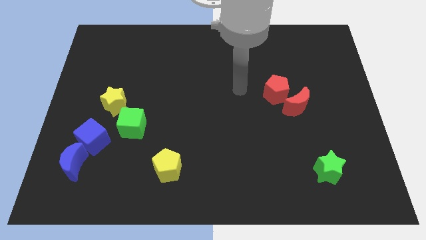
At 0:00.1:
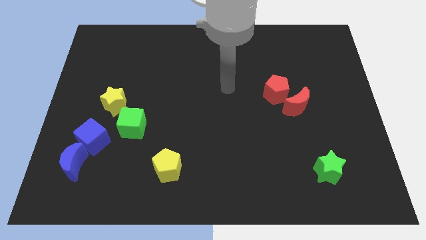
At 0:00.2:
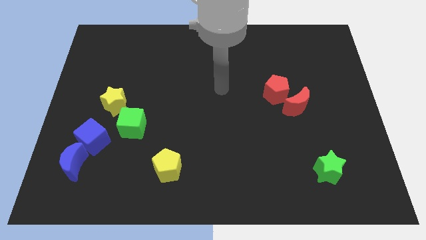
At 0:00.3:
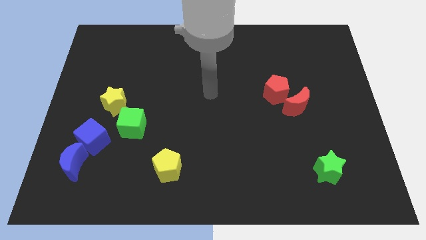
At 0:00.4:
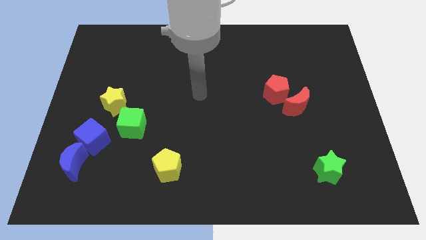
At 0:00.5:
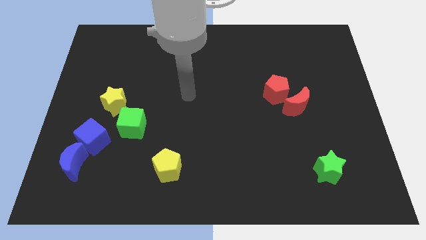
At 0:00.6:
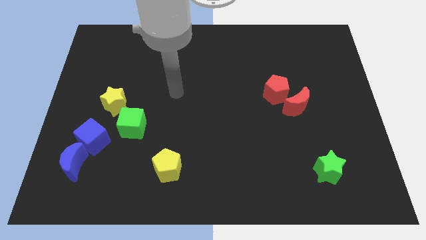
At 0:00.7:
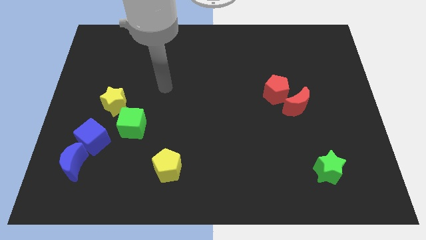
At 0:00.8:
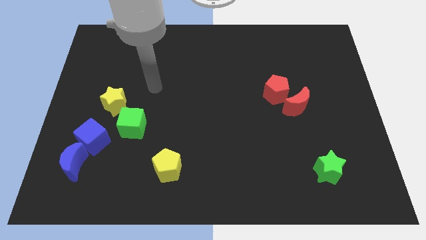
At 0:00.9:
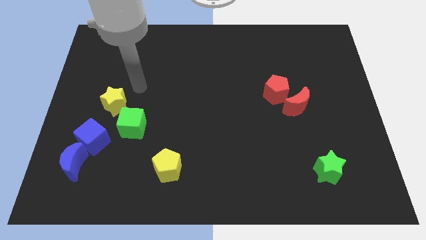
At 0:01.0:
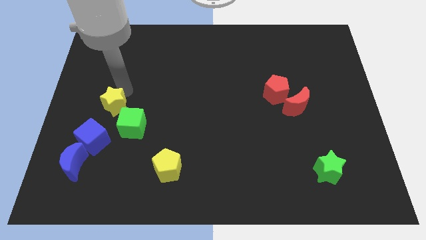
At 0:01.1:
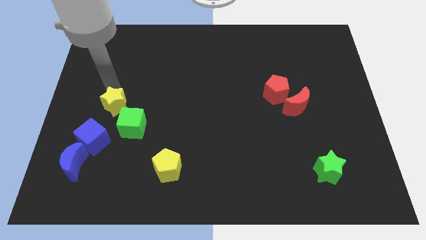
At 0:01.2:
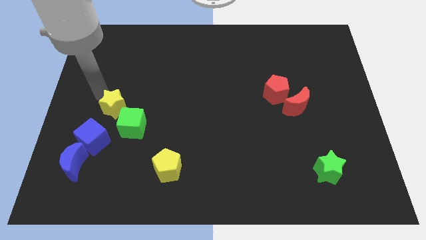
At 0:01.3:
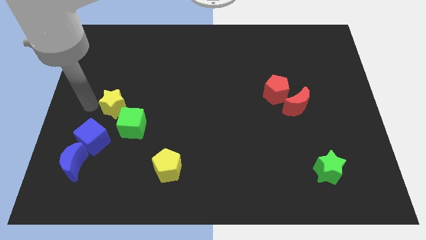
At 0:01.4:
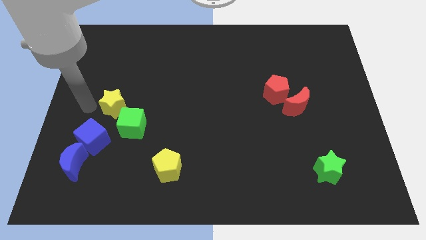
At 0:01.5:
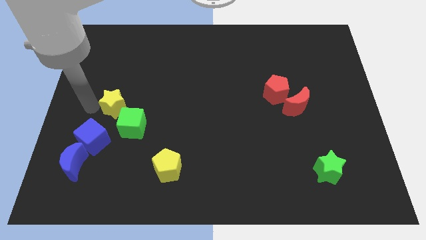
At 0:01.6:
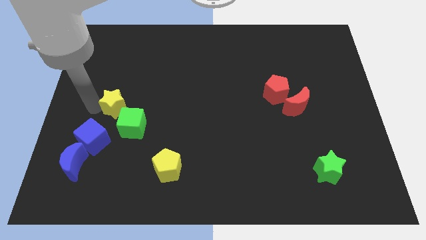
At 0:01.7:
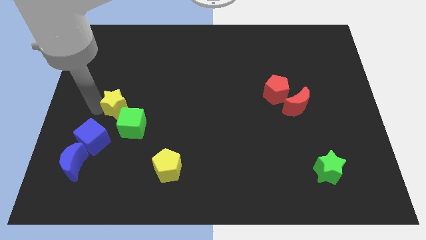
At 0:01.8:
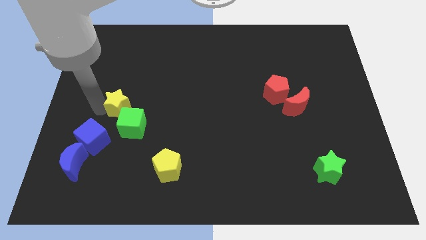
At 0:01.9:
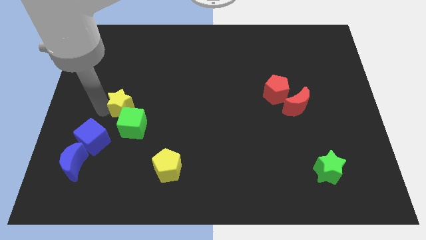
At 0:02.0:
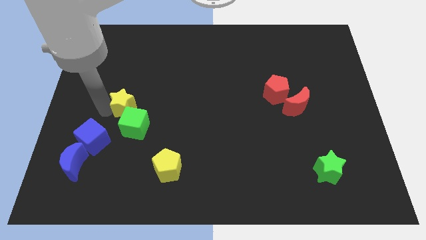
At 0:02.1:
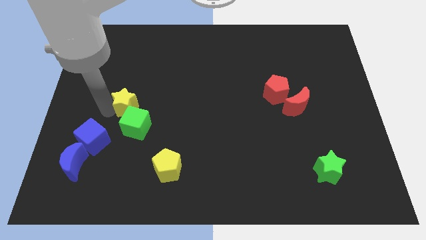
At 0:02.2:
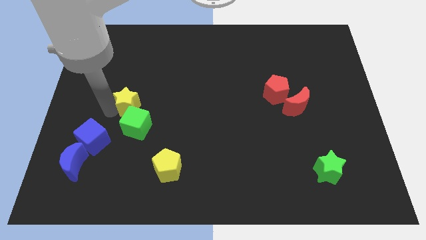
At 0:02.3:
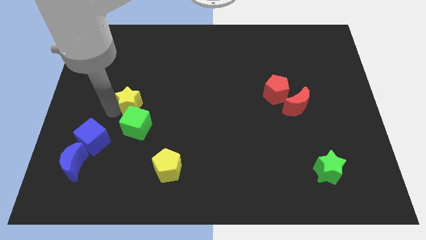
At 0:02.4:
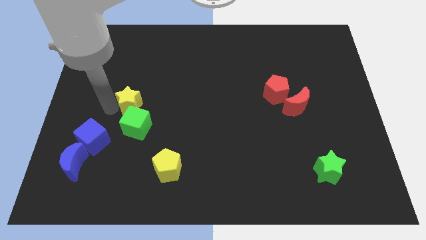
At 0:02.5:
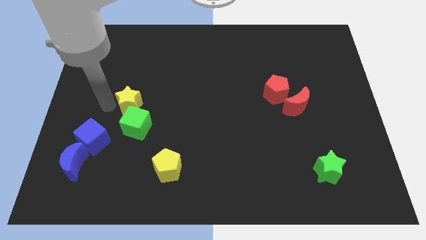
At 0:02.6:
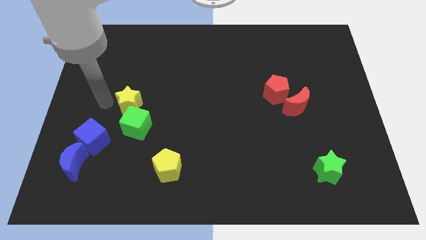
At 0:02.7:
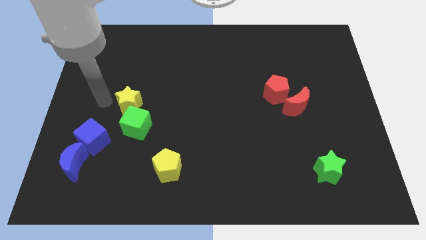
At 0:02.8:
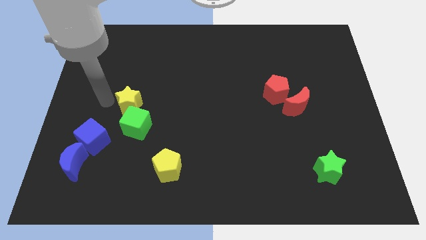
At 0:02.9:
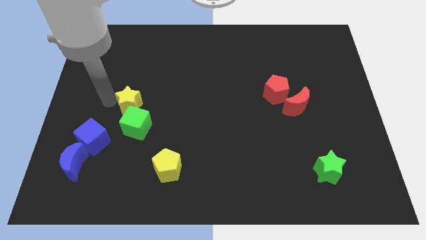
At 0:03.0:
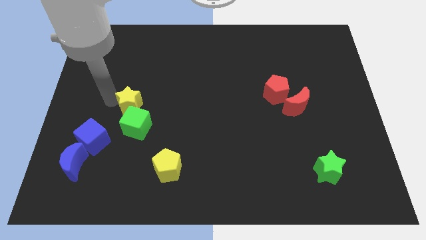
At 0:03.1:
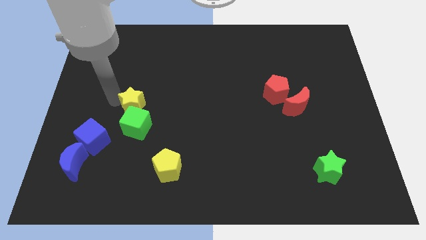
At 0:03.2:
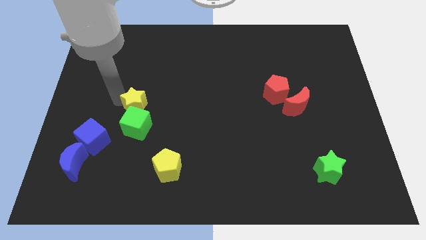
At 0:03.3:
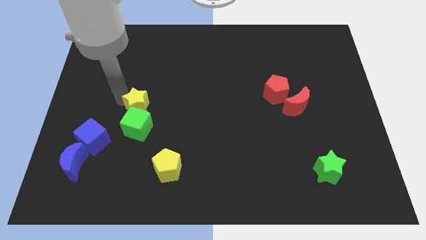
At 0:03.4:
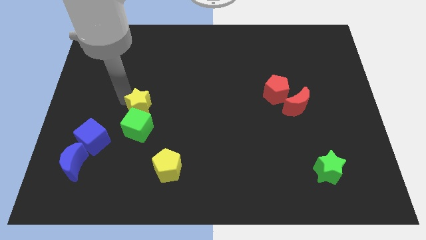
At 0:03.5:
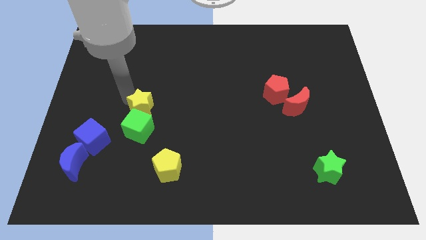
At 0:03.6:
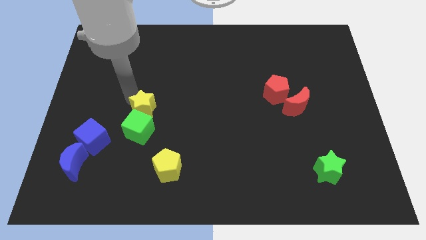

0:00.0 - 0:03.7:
move the yellow star somewhat right

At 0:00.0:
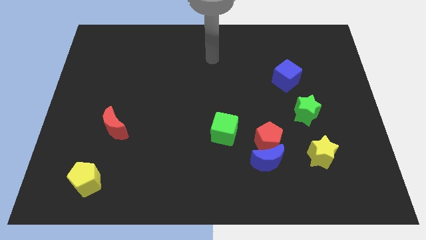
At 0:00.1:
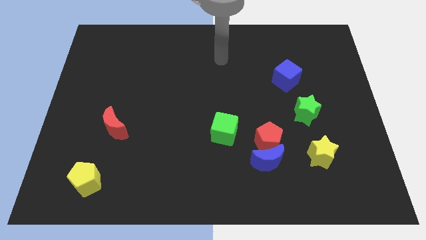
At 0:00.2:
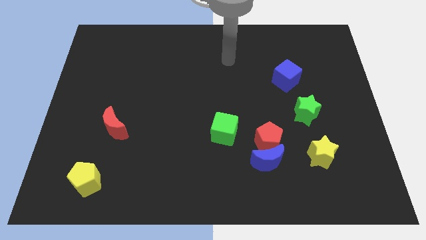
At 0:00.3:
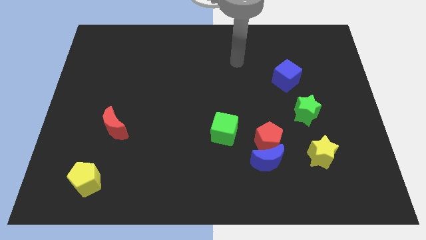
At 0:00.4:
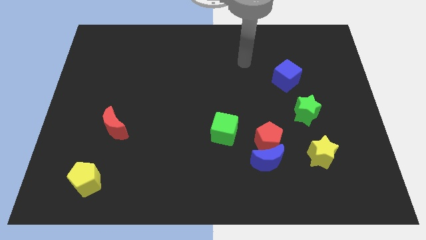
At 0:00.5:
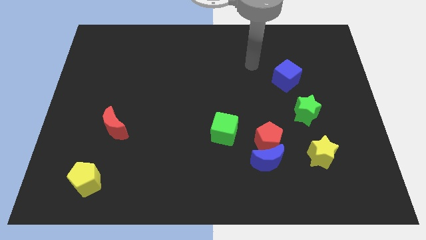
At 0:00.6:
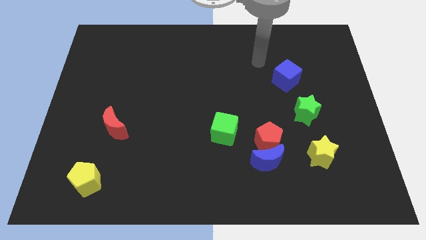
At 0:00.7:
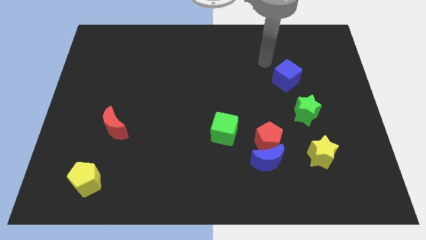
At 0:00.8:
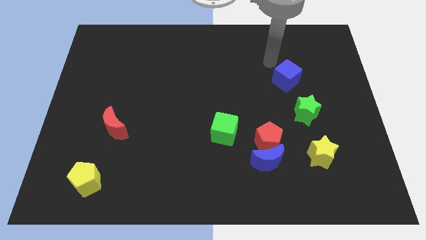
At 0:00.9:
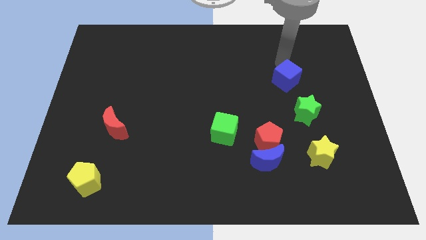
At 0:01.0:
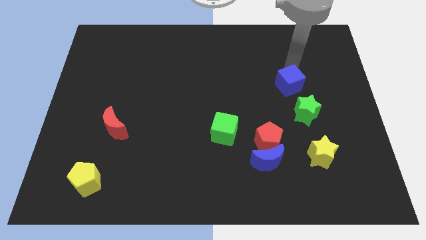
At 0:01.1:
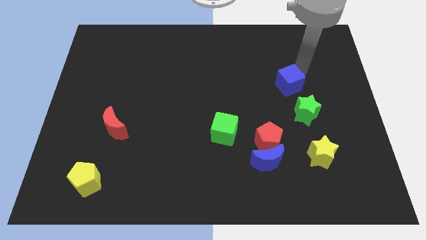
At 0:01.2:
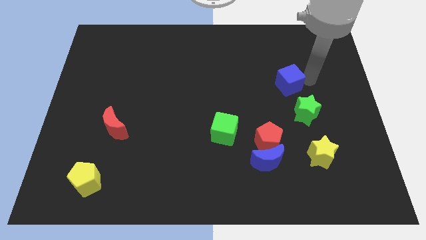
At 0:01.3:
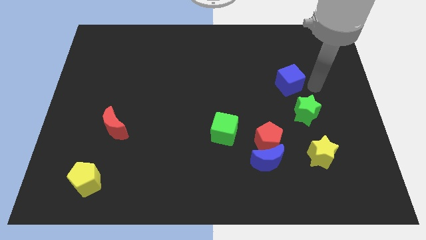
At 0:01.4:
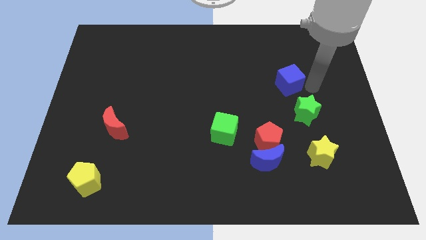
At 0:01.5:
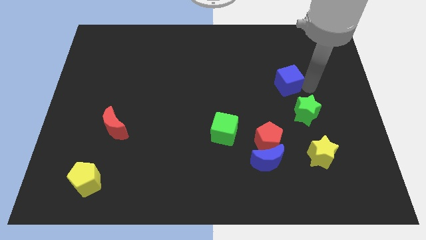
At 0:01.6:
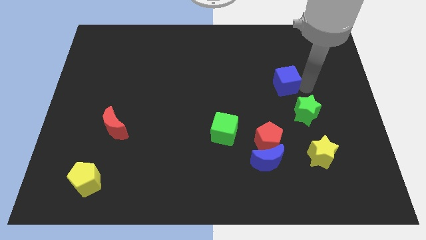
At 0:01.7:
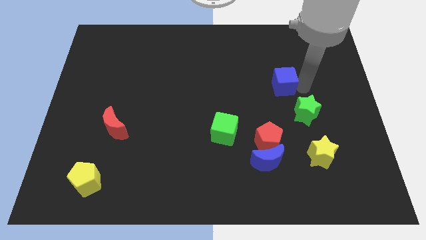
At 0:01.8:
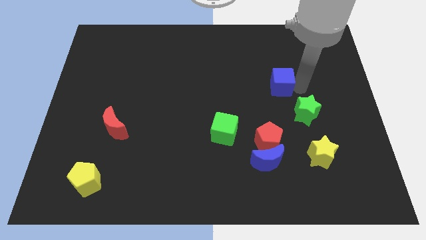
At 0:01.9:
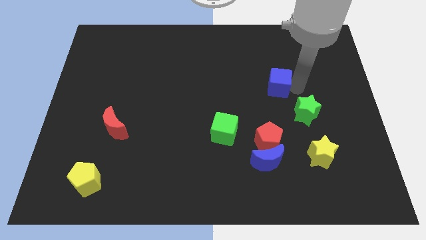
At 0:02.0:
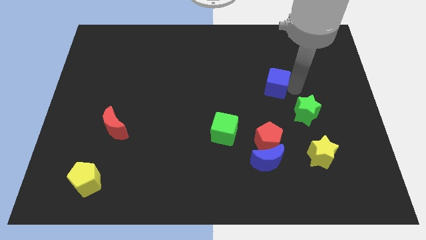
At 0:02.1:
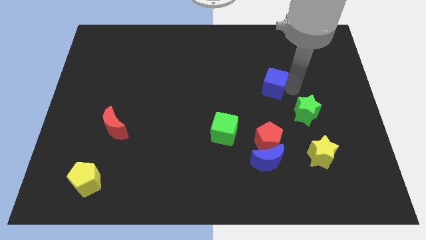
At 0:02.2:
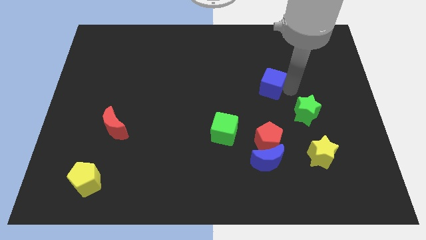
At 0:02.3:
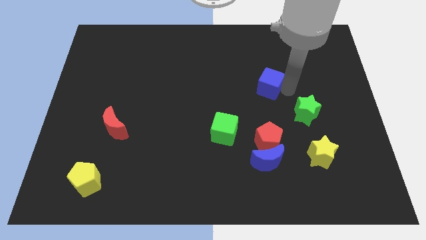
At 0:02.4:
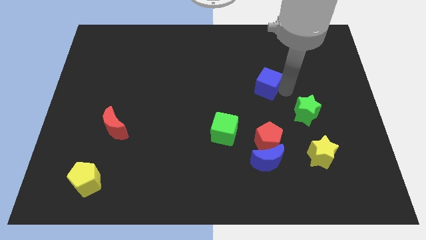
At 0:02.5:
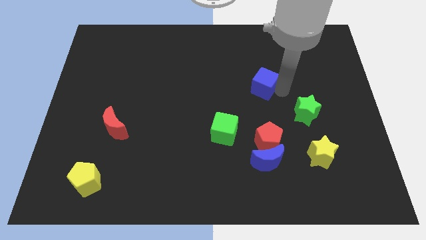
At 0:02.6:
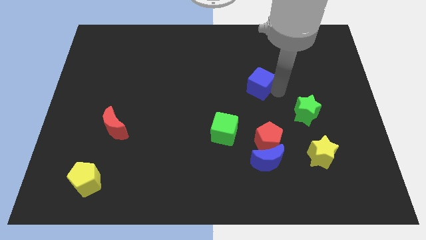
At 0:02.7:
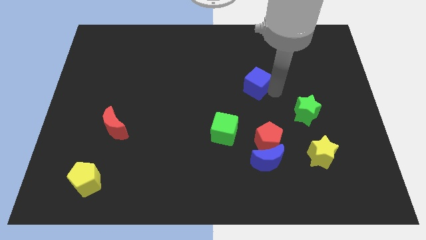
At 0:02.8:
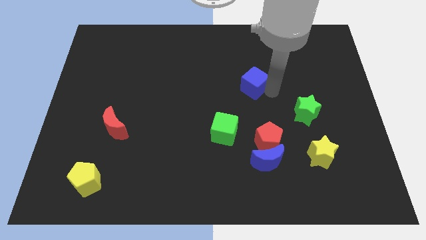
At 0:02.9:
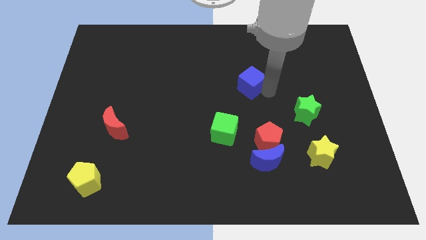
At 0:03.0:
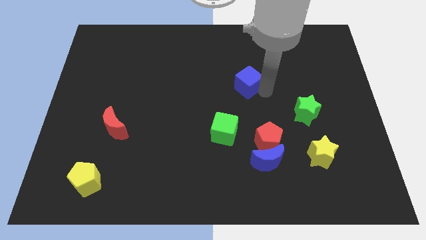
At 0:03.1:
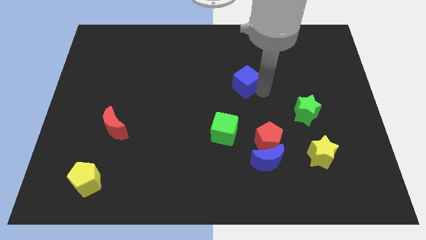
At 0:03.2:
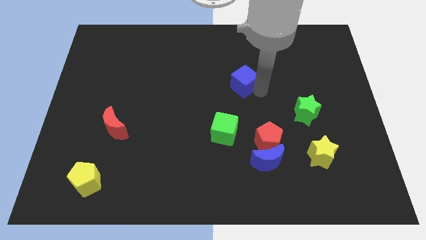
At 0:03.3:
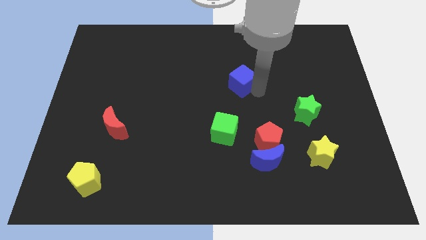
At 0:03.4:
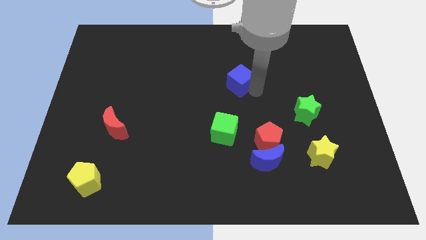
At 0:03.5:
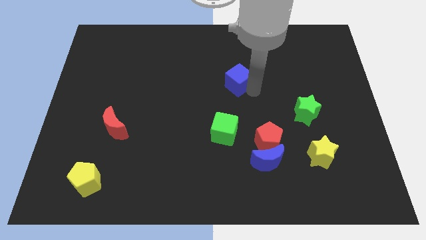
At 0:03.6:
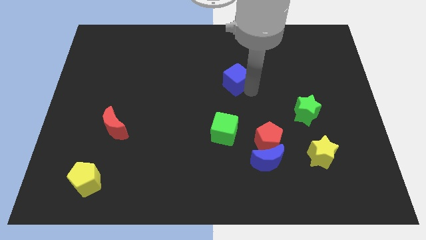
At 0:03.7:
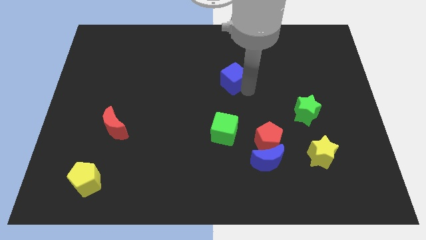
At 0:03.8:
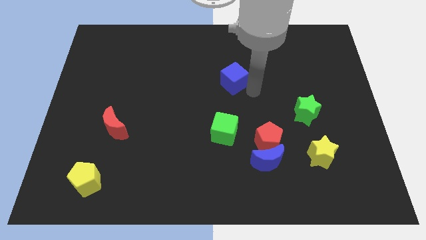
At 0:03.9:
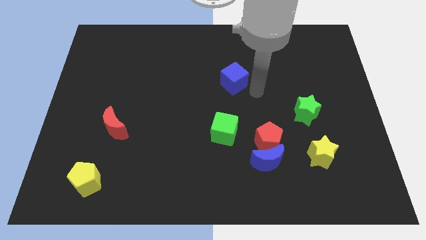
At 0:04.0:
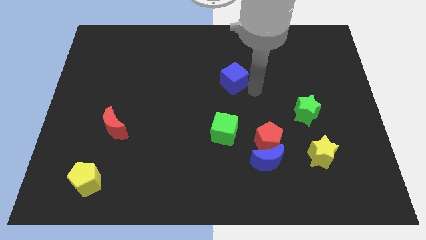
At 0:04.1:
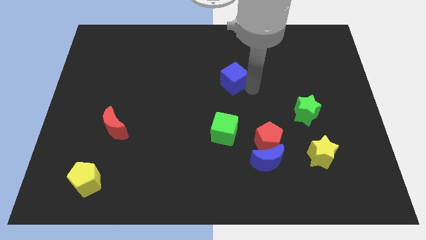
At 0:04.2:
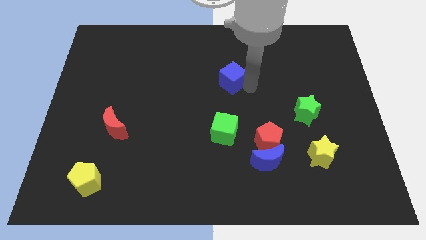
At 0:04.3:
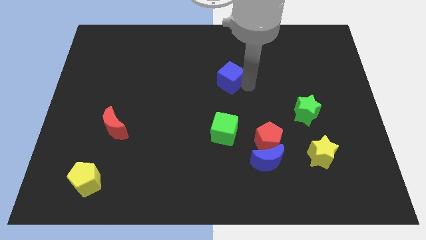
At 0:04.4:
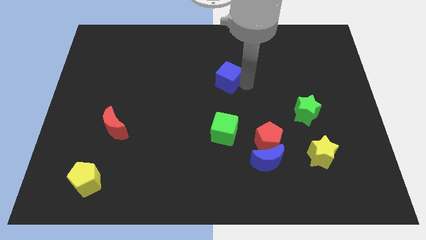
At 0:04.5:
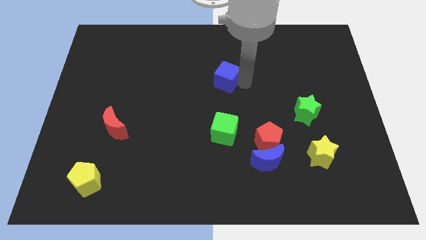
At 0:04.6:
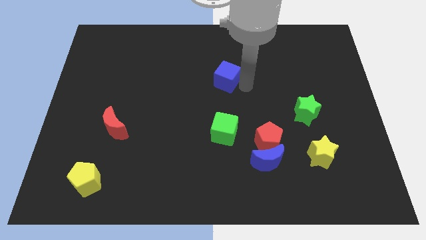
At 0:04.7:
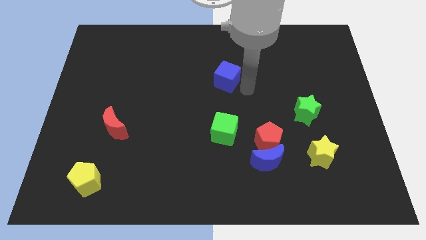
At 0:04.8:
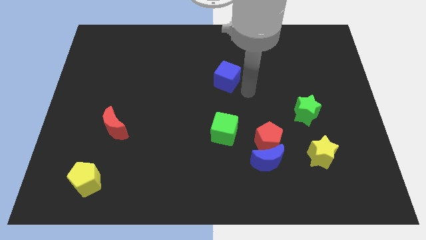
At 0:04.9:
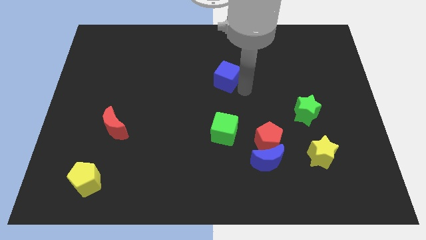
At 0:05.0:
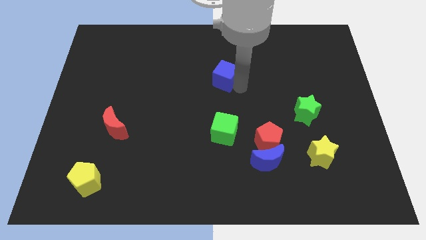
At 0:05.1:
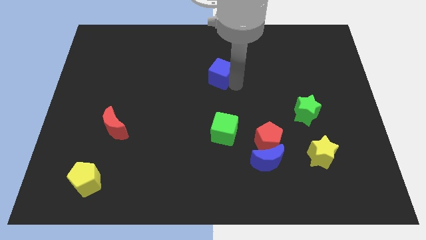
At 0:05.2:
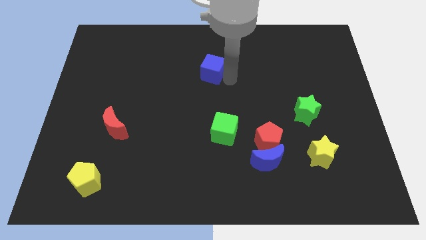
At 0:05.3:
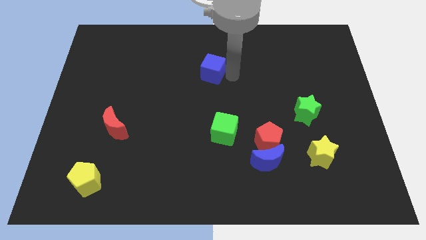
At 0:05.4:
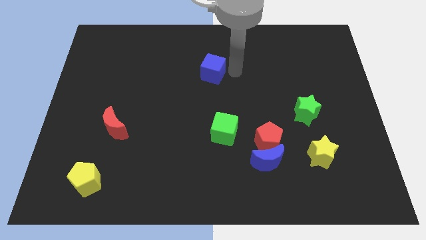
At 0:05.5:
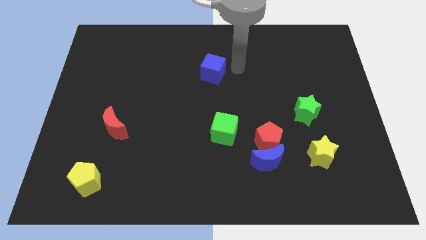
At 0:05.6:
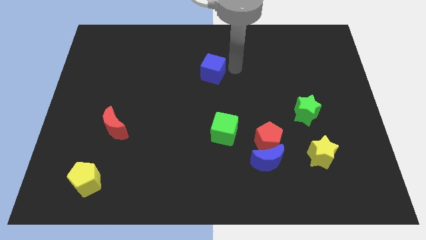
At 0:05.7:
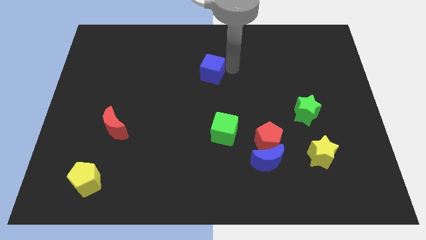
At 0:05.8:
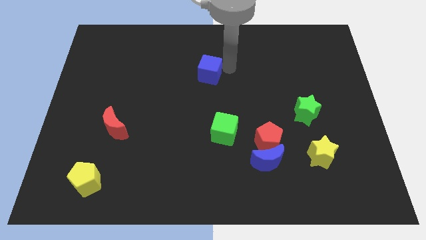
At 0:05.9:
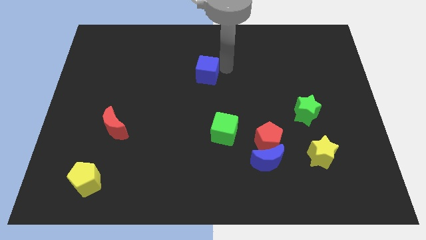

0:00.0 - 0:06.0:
push the blue cube left
